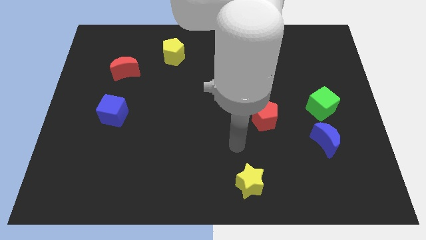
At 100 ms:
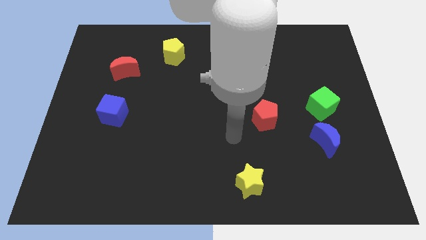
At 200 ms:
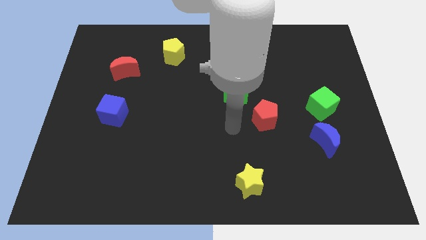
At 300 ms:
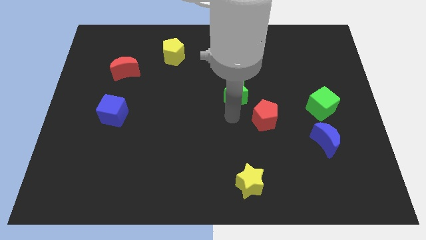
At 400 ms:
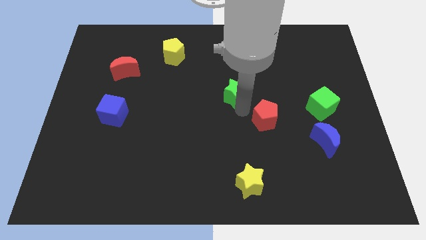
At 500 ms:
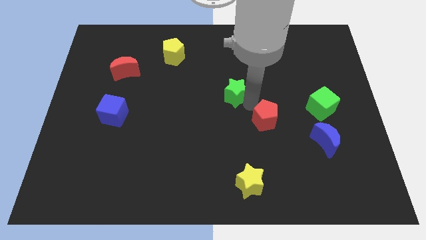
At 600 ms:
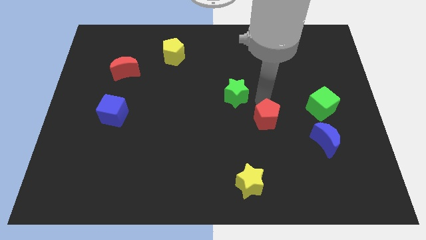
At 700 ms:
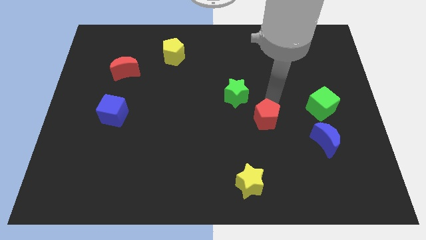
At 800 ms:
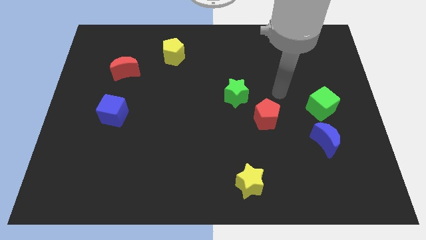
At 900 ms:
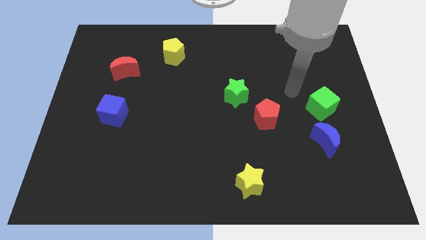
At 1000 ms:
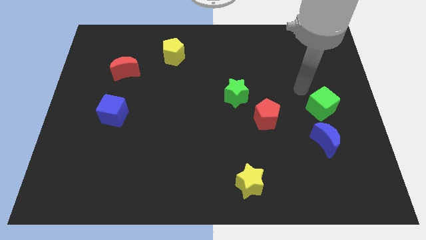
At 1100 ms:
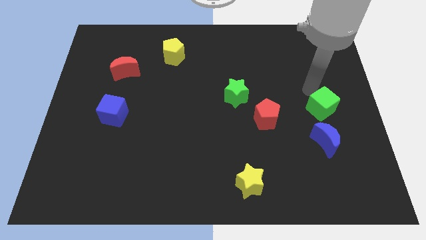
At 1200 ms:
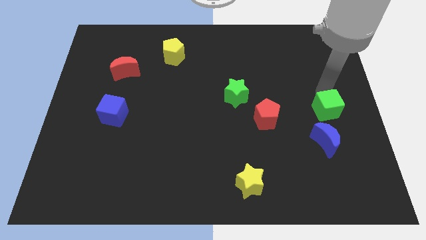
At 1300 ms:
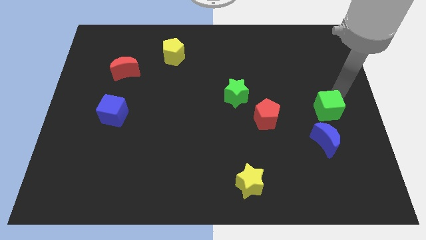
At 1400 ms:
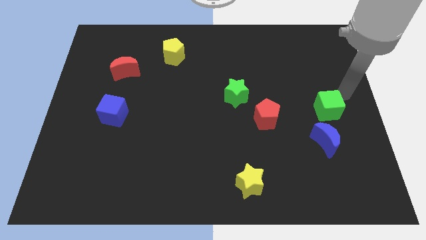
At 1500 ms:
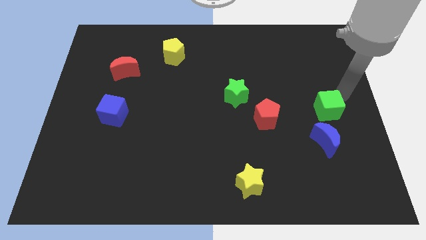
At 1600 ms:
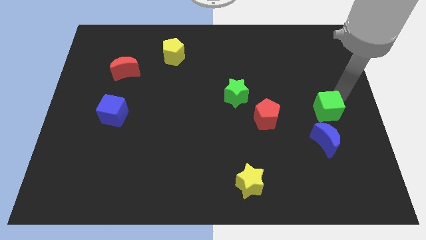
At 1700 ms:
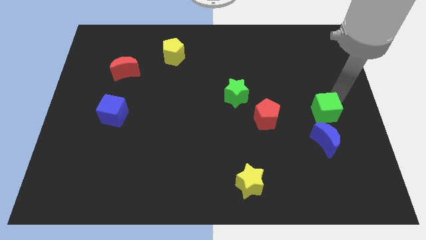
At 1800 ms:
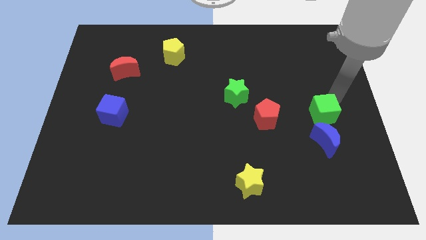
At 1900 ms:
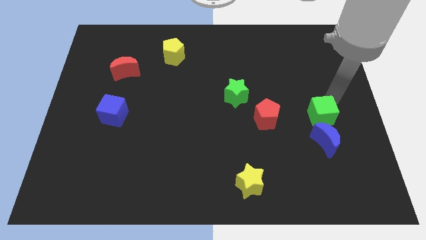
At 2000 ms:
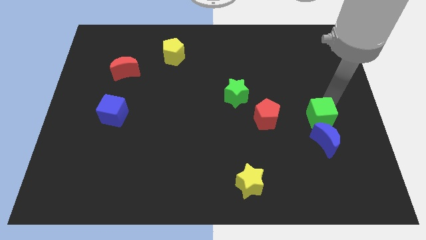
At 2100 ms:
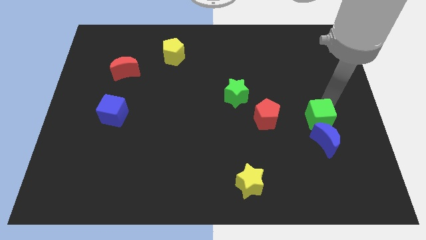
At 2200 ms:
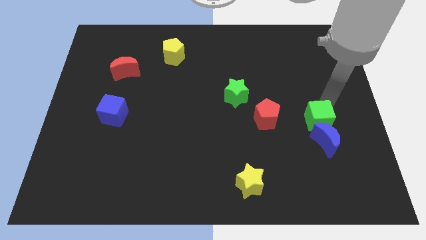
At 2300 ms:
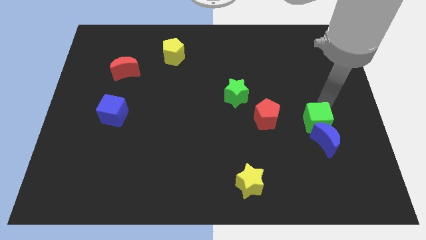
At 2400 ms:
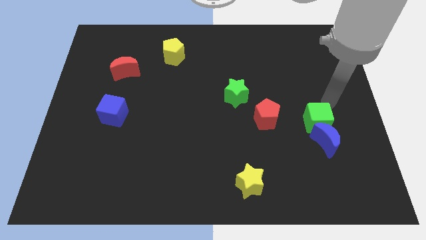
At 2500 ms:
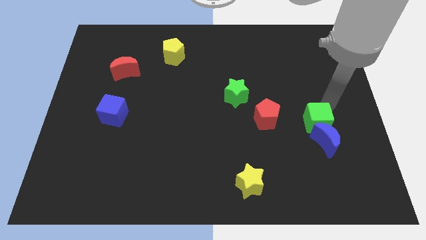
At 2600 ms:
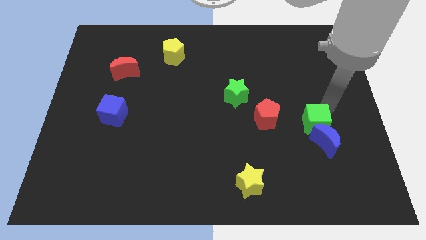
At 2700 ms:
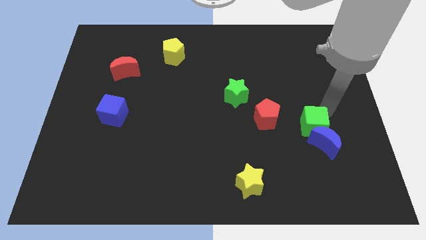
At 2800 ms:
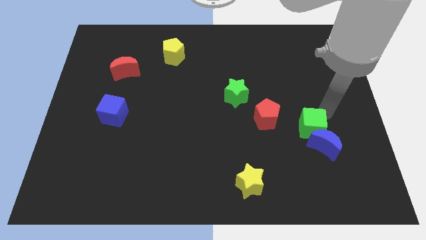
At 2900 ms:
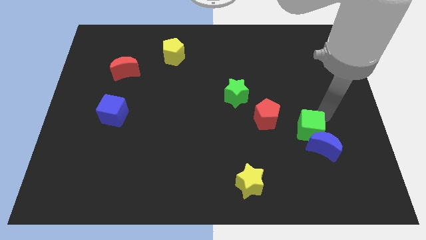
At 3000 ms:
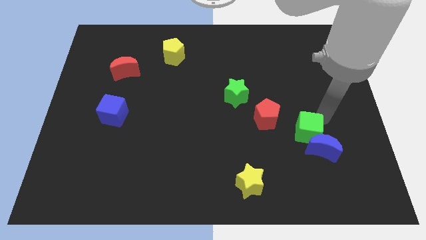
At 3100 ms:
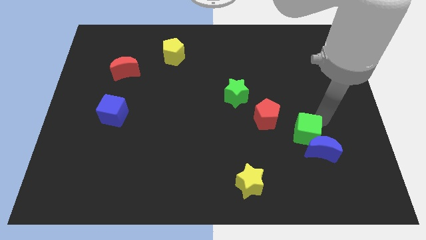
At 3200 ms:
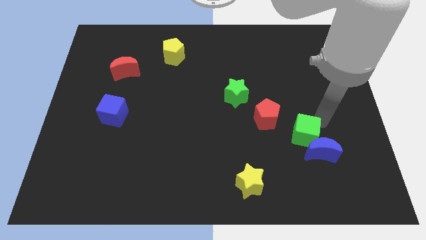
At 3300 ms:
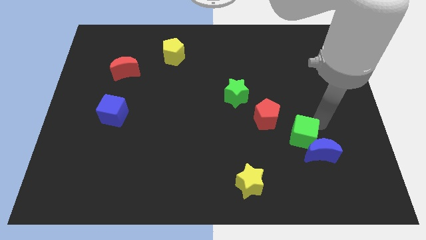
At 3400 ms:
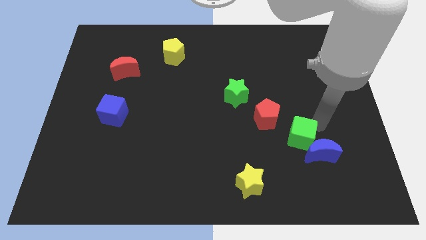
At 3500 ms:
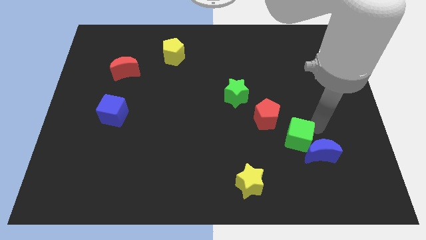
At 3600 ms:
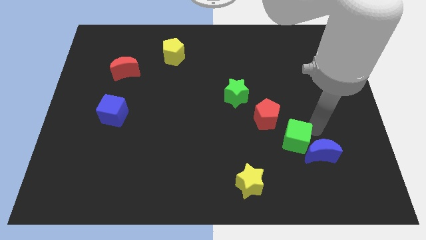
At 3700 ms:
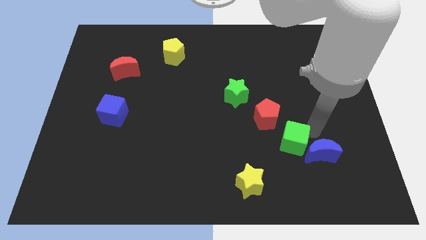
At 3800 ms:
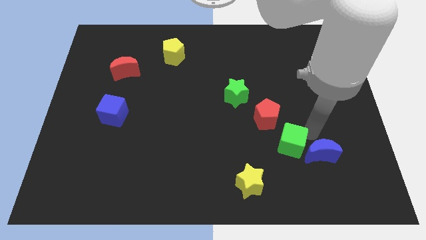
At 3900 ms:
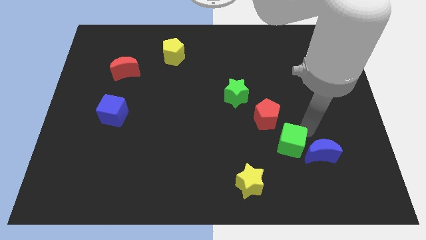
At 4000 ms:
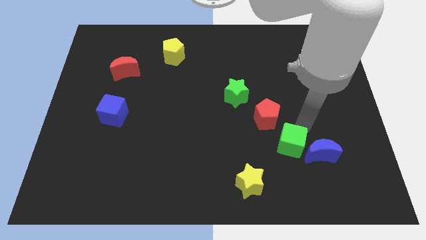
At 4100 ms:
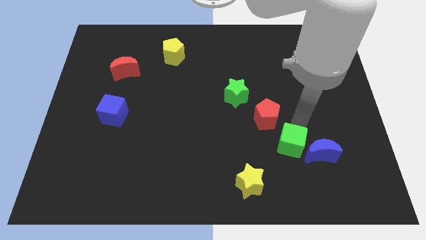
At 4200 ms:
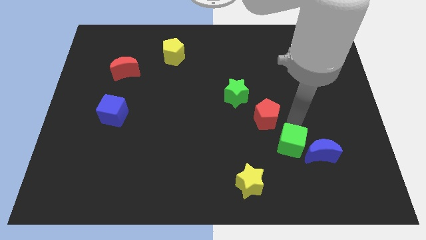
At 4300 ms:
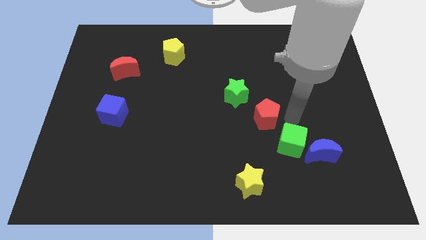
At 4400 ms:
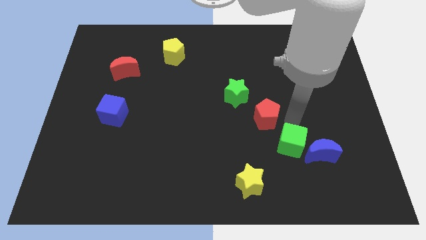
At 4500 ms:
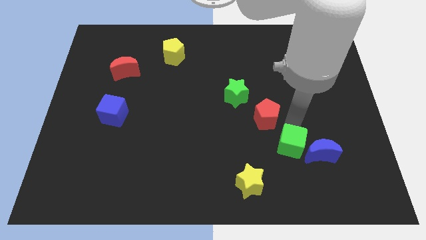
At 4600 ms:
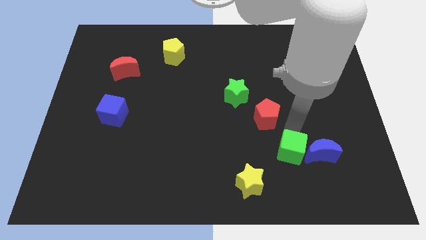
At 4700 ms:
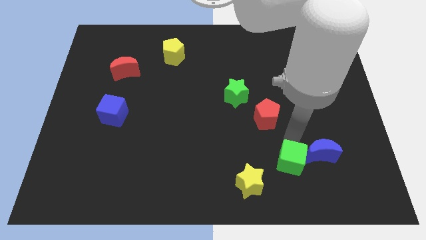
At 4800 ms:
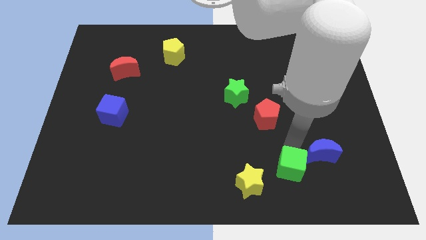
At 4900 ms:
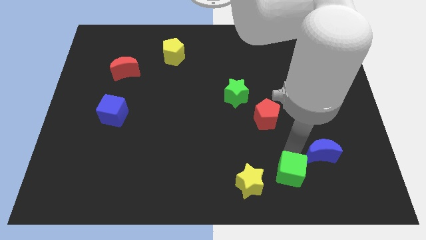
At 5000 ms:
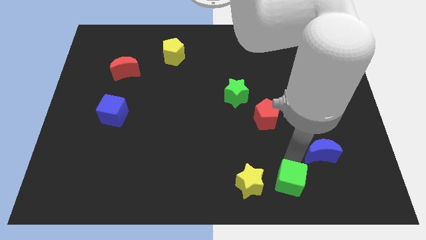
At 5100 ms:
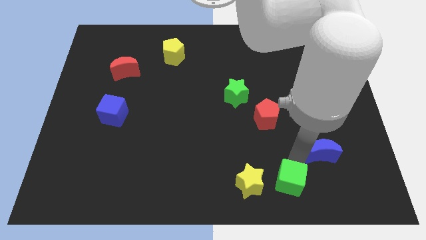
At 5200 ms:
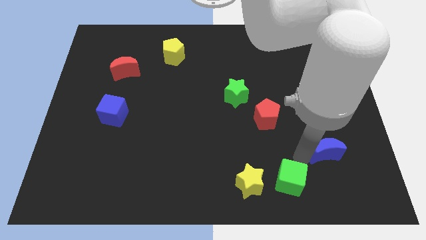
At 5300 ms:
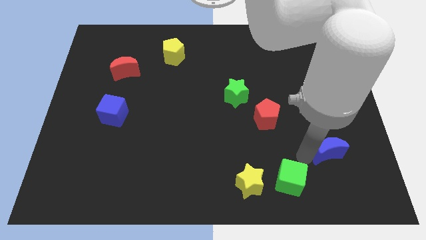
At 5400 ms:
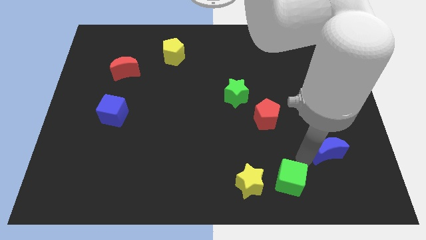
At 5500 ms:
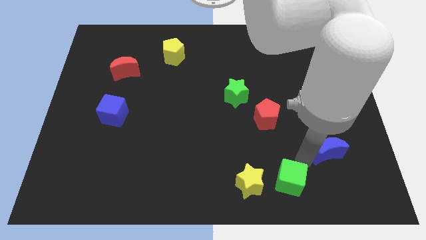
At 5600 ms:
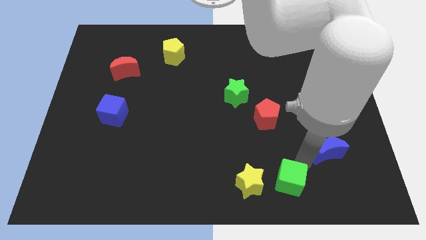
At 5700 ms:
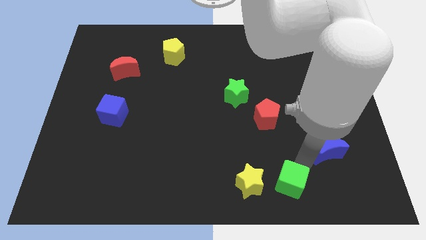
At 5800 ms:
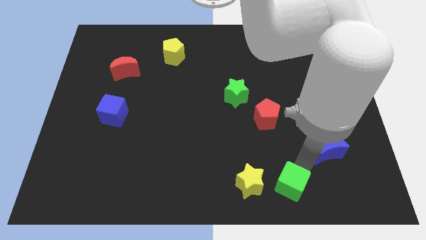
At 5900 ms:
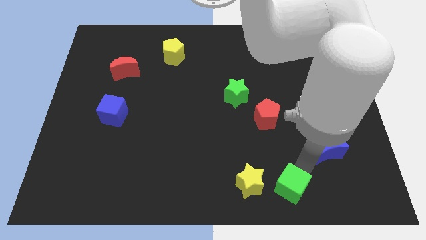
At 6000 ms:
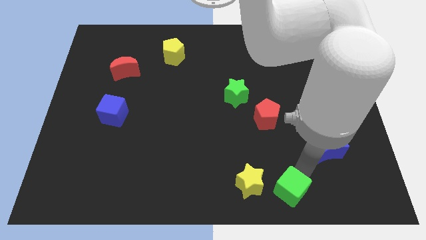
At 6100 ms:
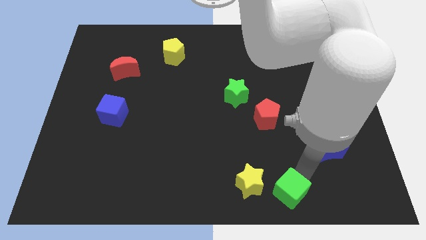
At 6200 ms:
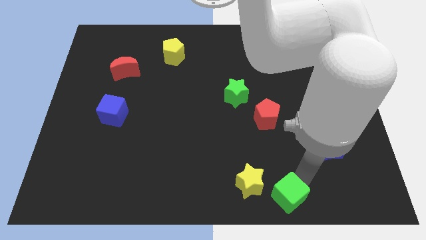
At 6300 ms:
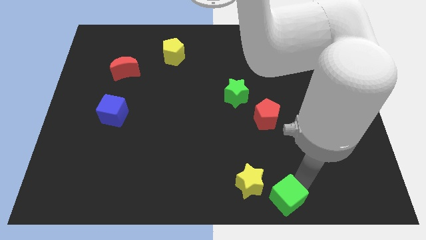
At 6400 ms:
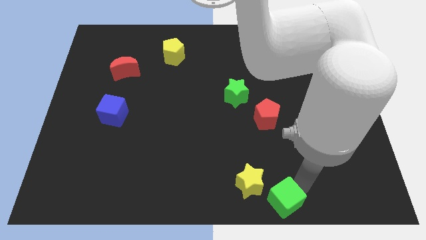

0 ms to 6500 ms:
put the green cube to the bottom

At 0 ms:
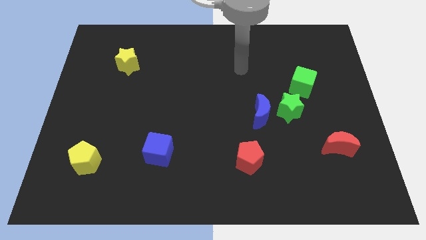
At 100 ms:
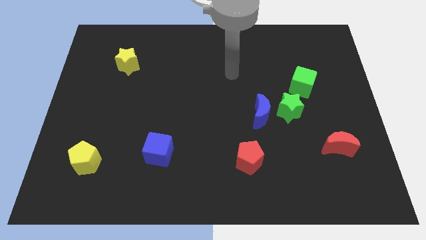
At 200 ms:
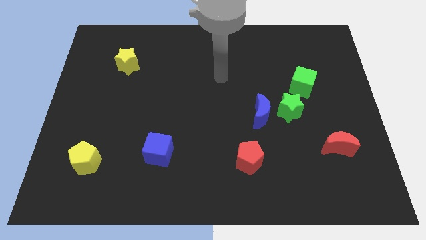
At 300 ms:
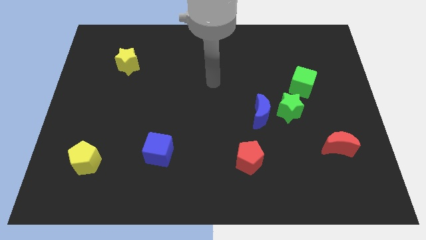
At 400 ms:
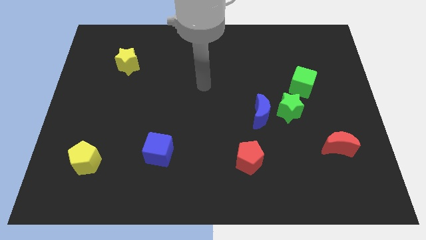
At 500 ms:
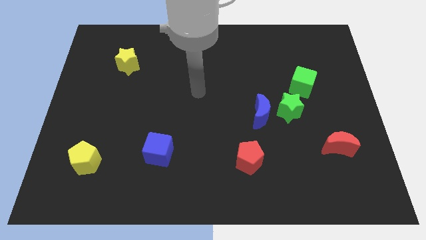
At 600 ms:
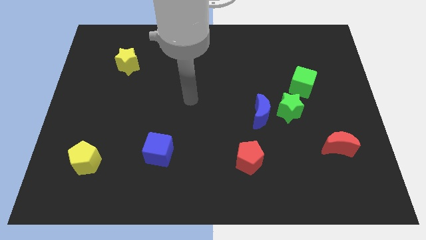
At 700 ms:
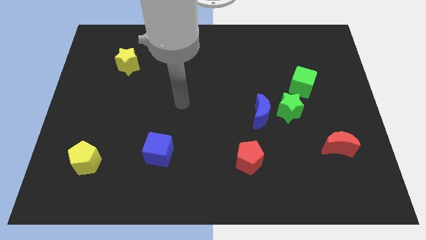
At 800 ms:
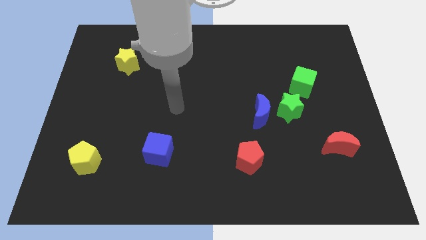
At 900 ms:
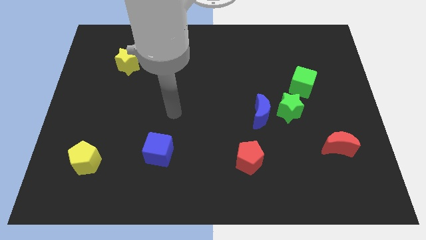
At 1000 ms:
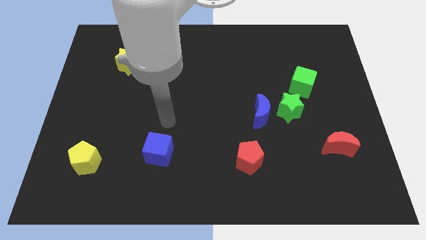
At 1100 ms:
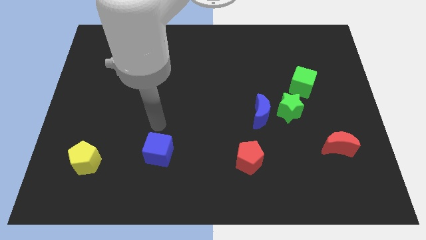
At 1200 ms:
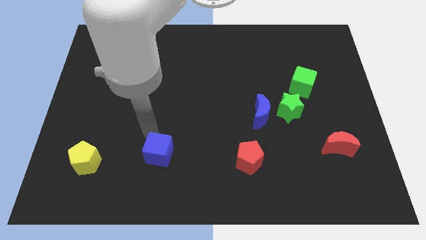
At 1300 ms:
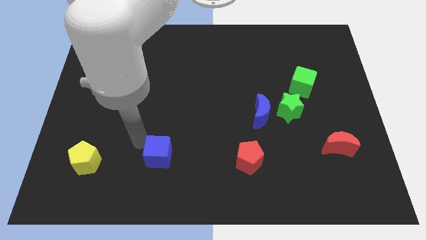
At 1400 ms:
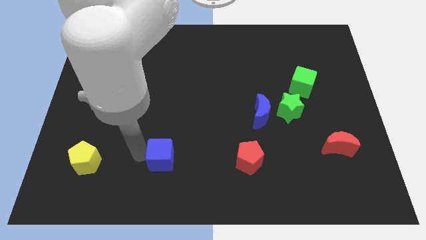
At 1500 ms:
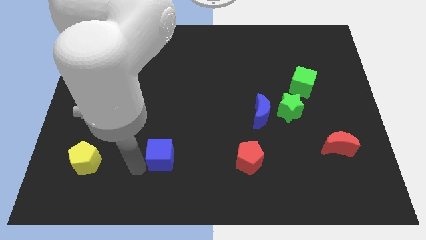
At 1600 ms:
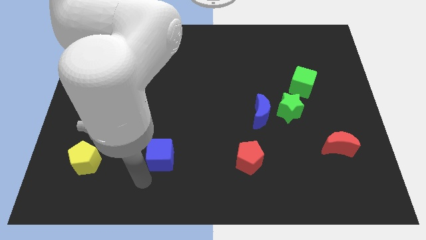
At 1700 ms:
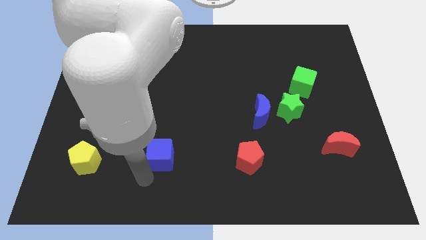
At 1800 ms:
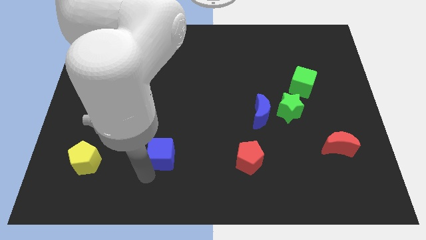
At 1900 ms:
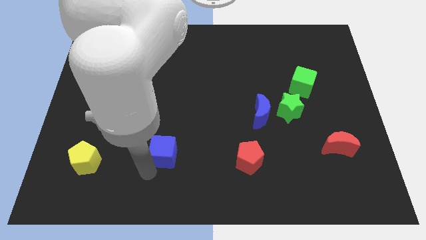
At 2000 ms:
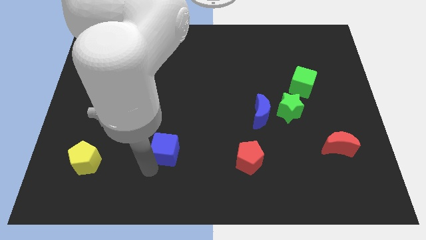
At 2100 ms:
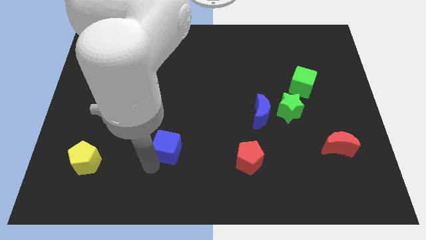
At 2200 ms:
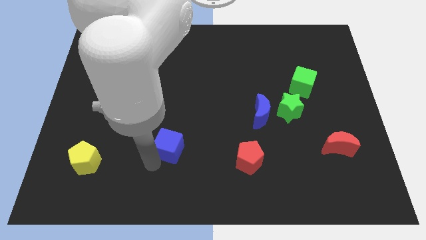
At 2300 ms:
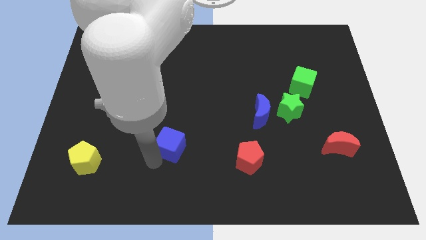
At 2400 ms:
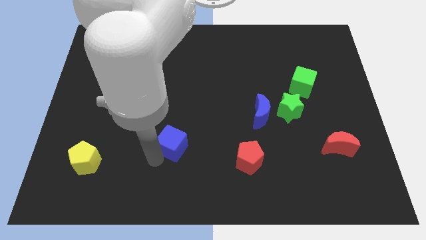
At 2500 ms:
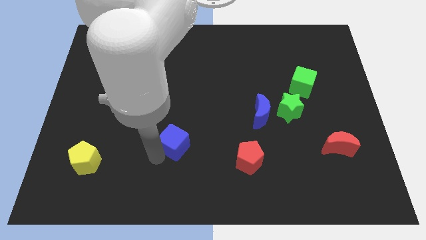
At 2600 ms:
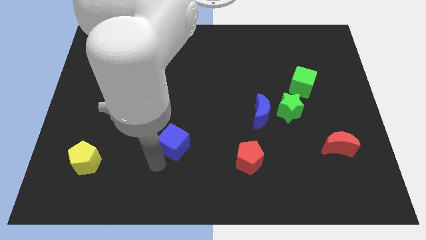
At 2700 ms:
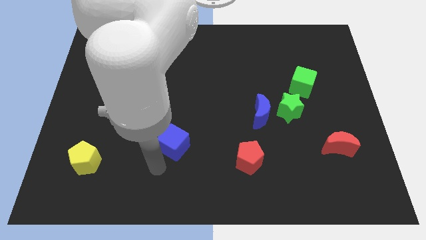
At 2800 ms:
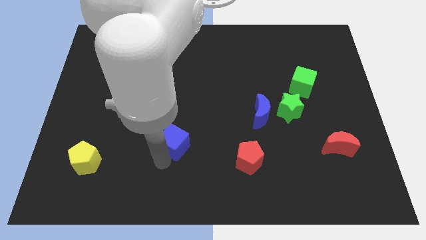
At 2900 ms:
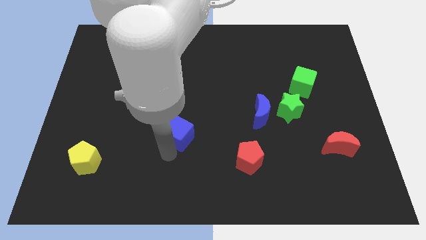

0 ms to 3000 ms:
push the blue cube to the center of the board
